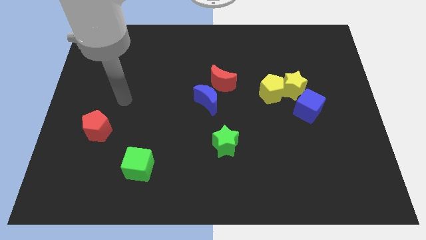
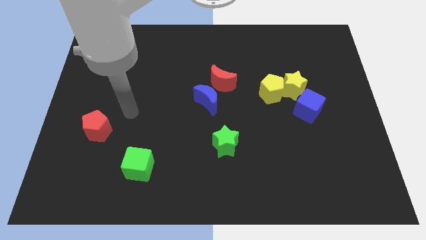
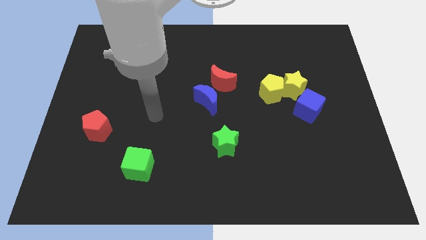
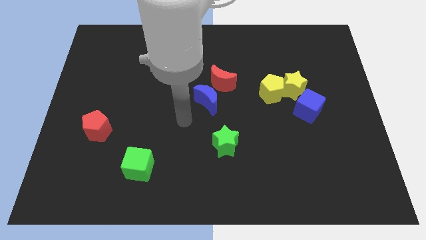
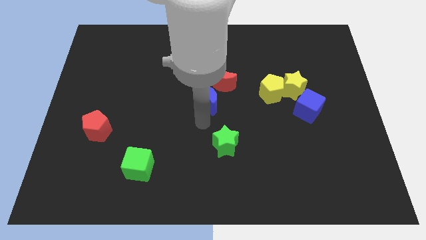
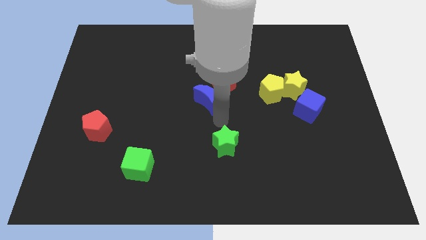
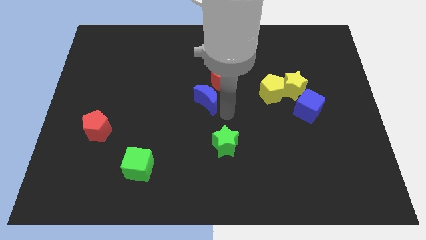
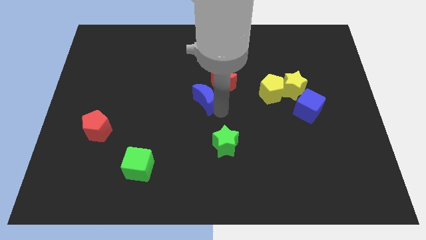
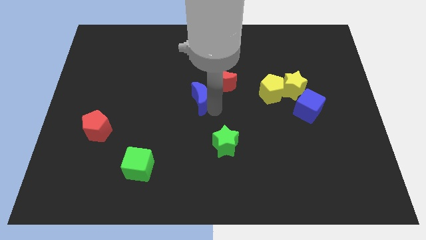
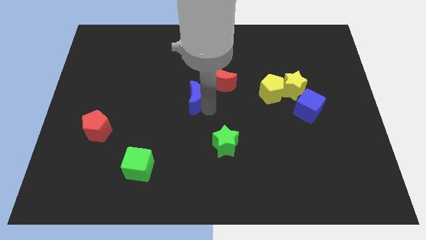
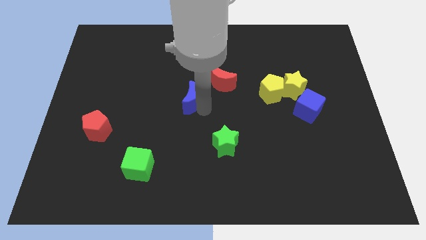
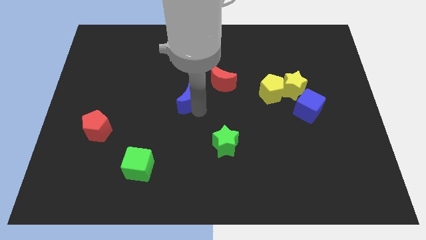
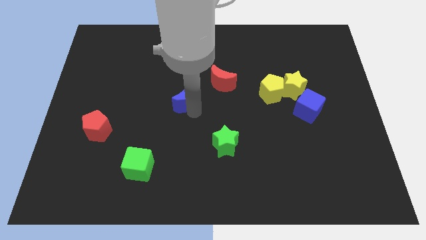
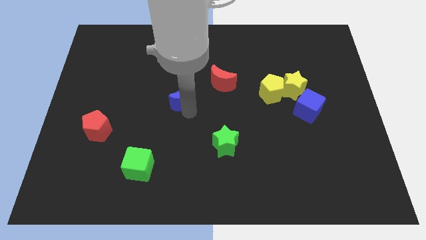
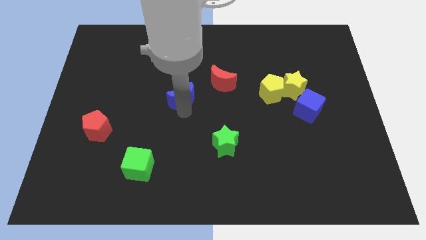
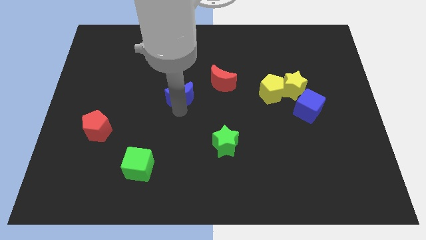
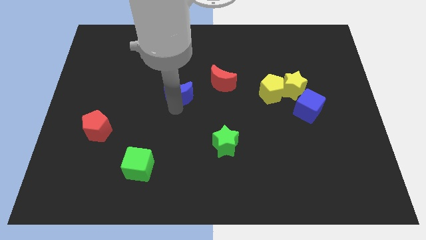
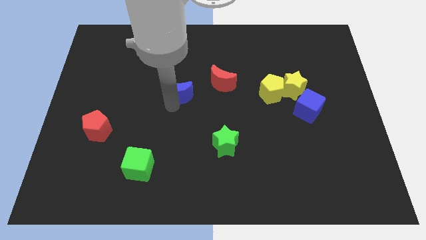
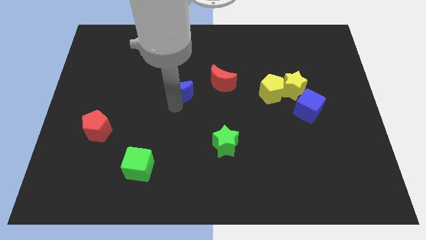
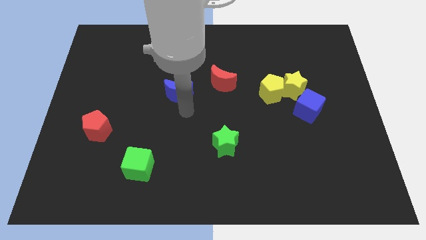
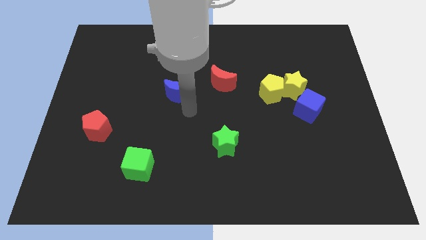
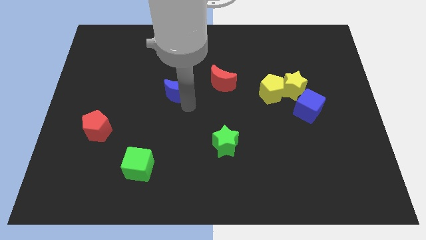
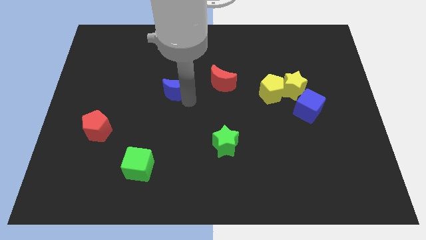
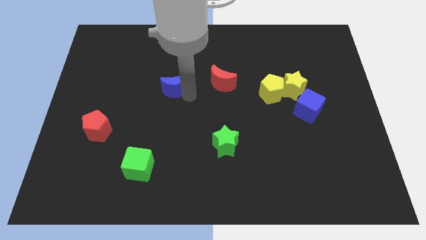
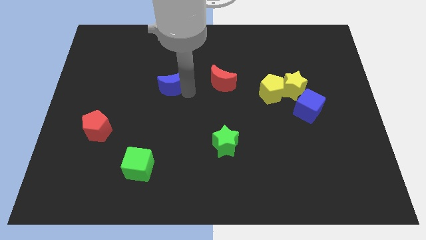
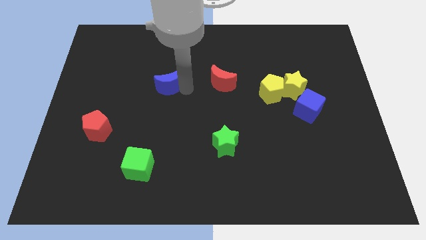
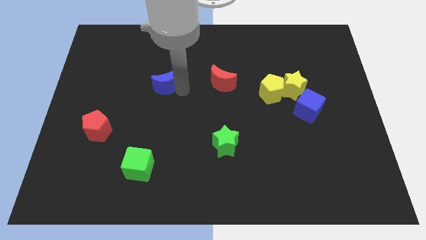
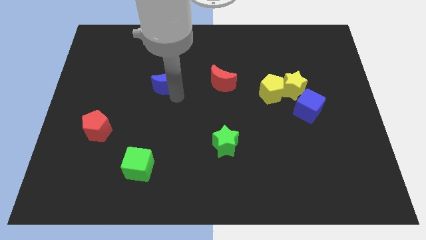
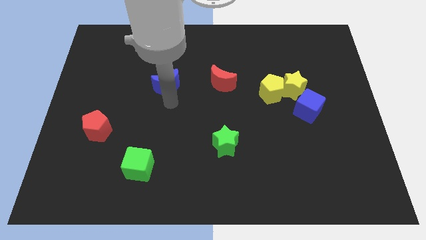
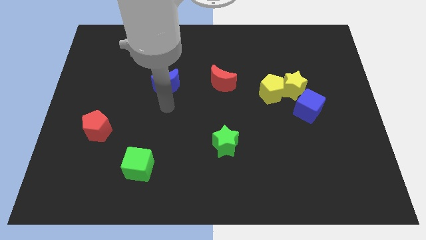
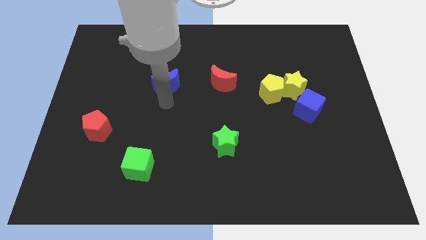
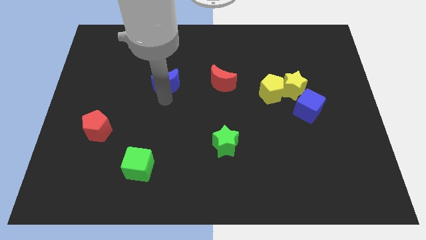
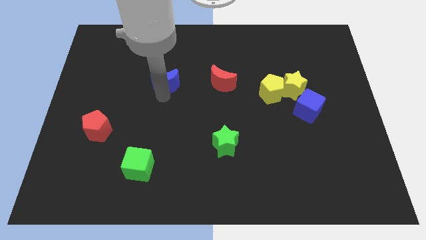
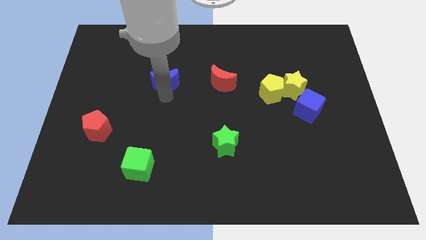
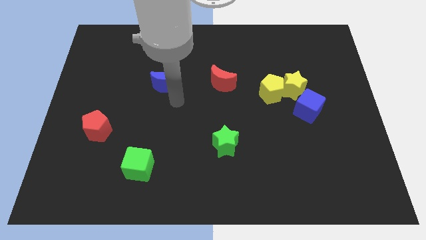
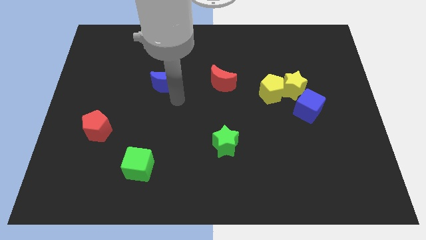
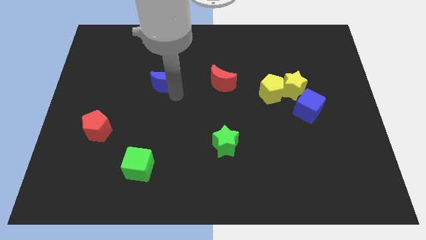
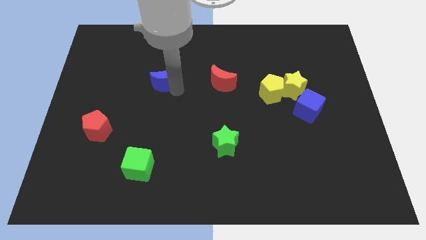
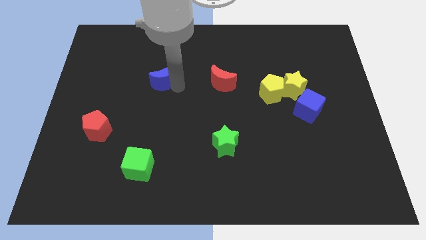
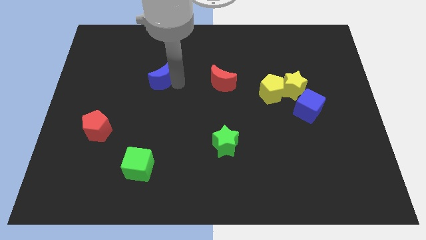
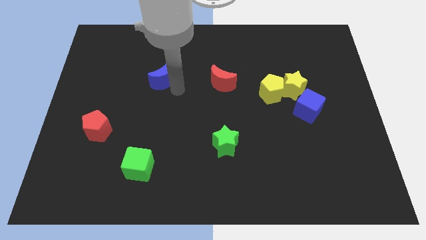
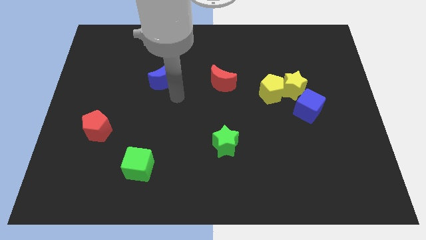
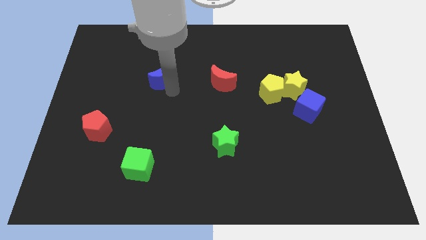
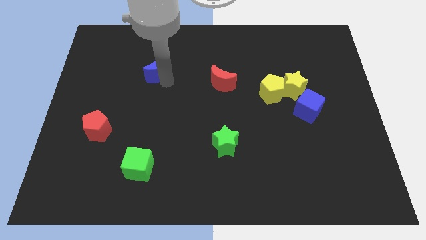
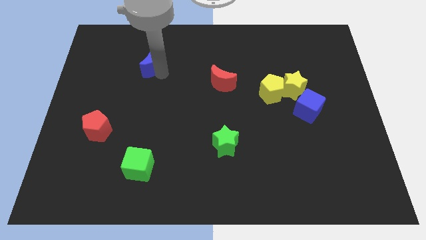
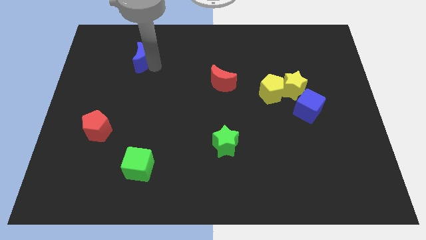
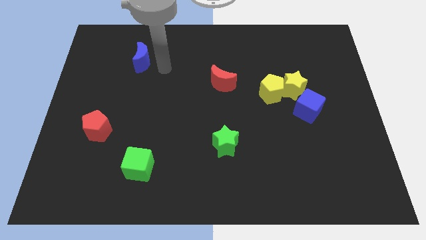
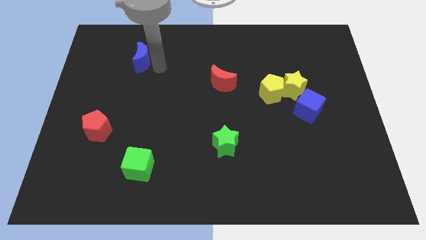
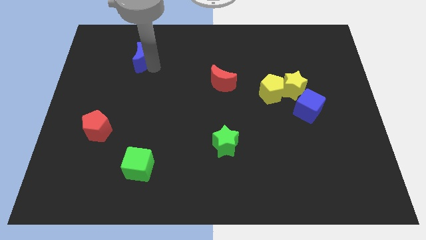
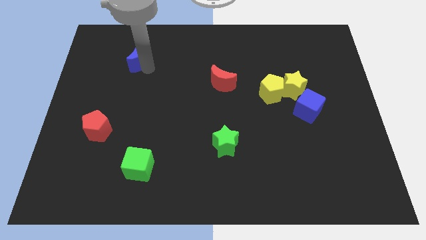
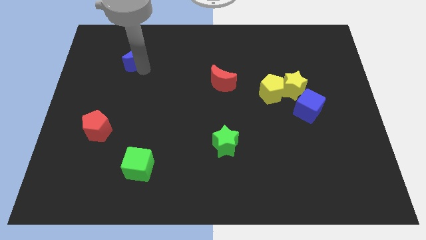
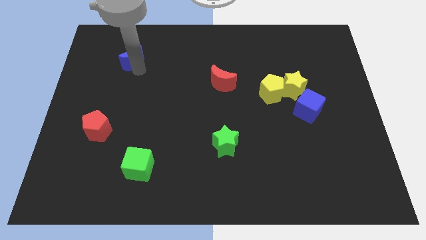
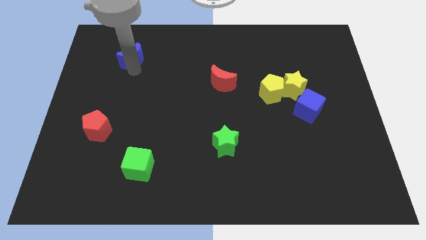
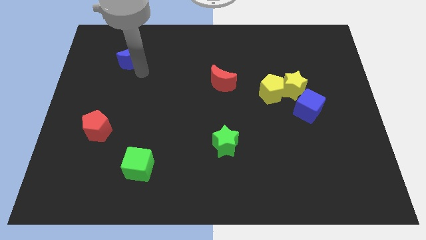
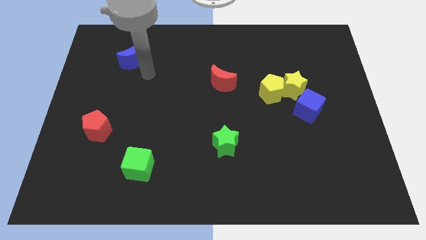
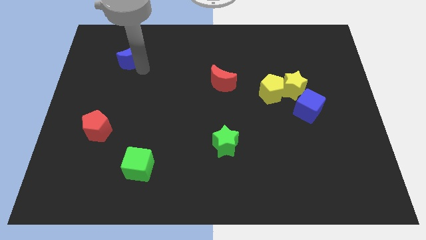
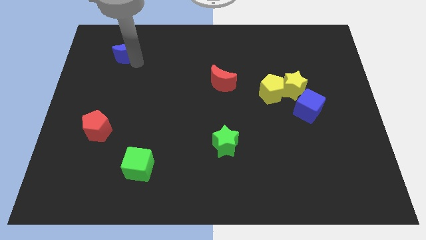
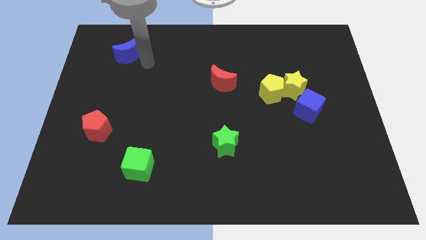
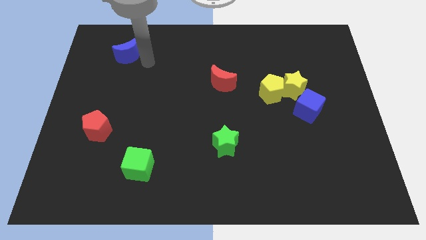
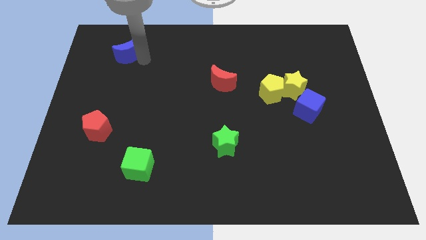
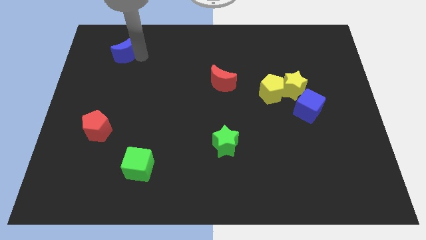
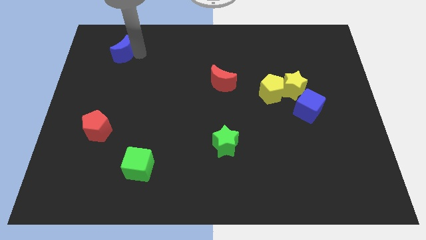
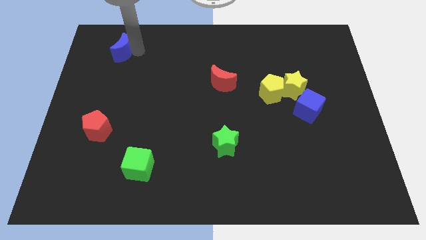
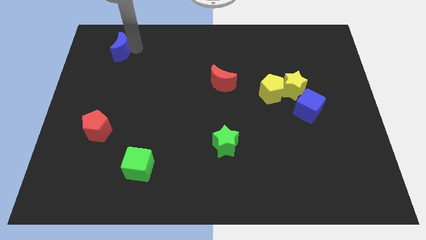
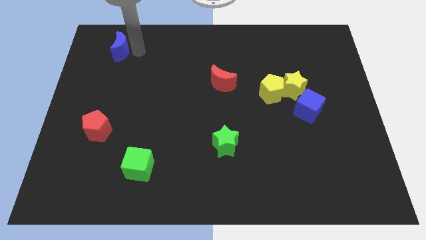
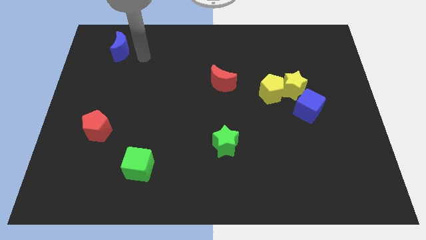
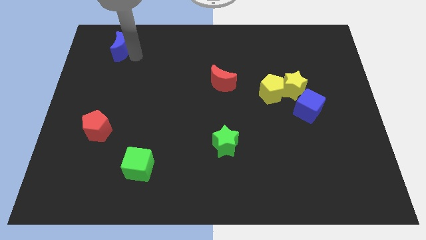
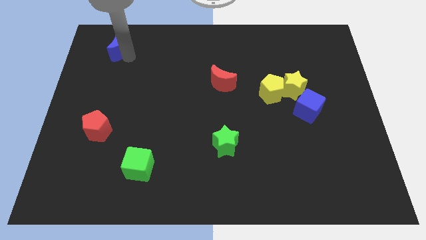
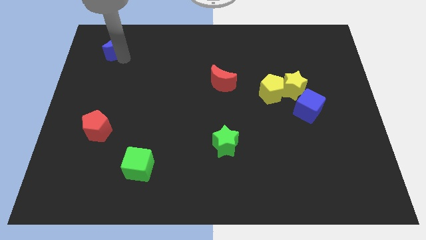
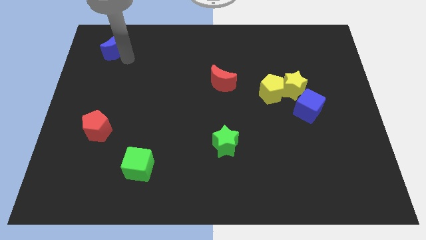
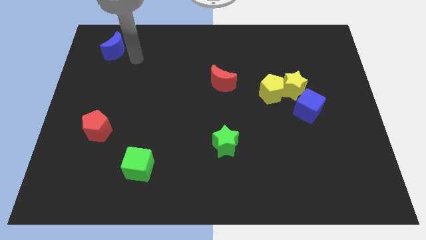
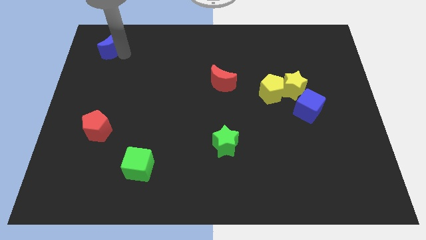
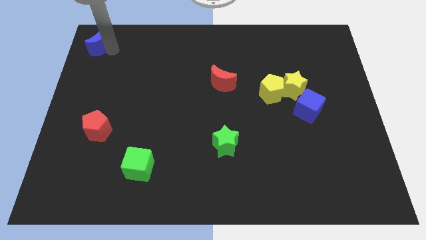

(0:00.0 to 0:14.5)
slide the blue moon to the top left corner
